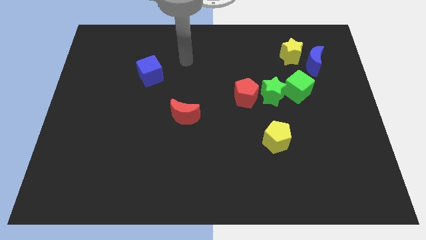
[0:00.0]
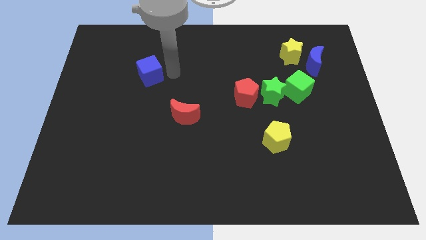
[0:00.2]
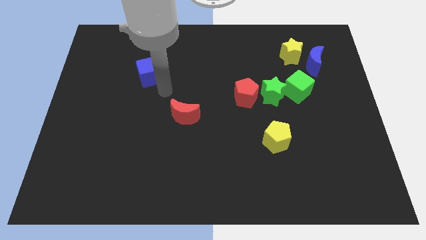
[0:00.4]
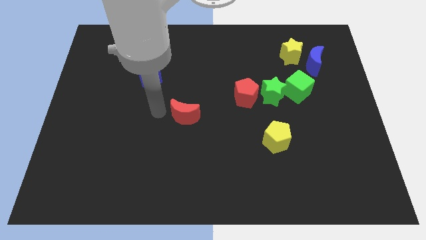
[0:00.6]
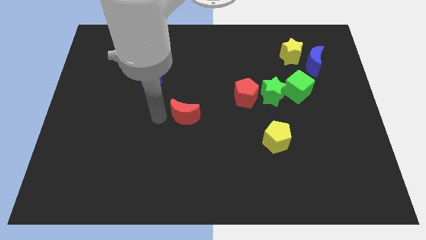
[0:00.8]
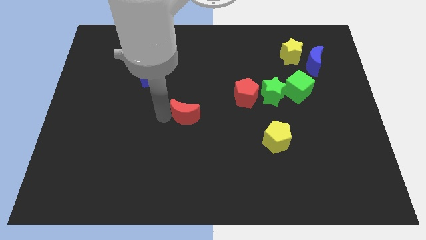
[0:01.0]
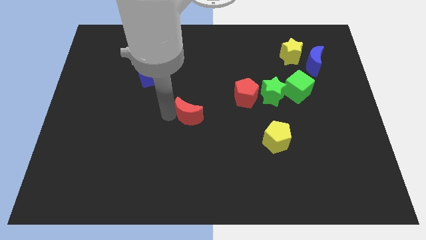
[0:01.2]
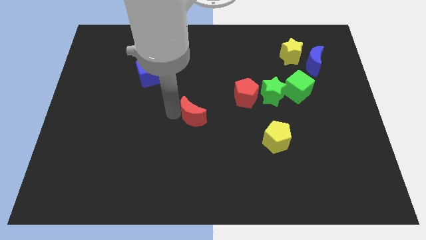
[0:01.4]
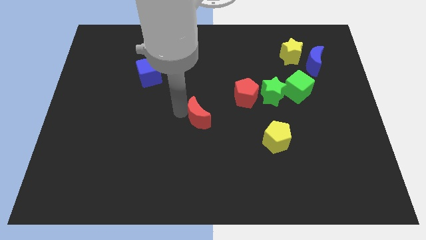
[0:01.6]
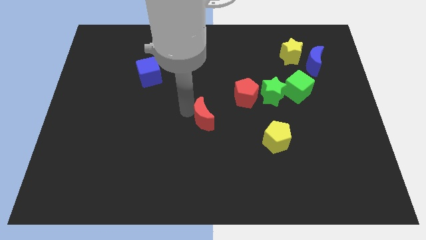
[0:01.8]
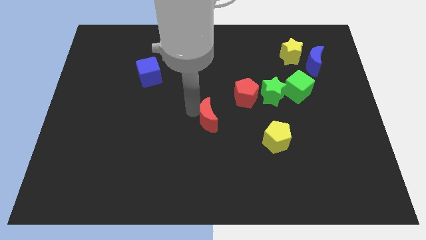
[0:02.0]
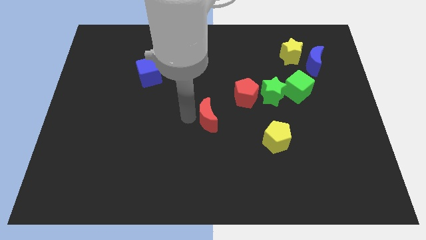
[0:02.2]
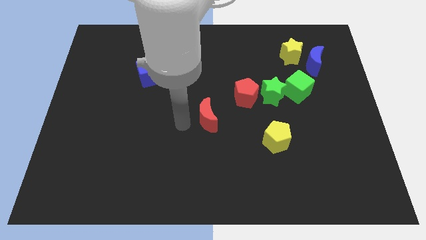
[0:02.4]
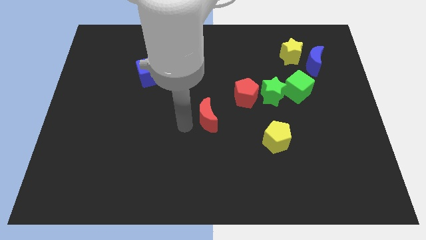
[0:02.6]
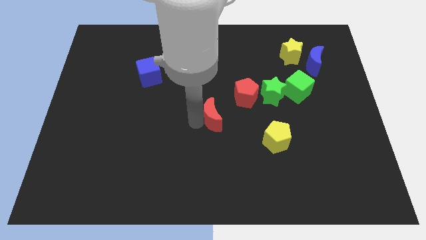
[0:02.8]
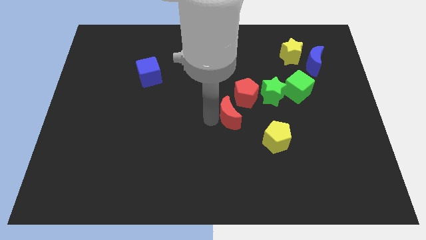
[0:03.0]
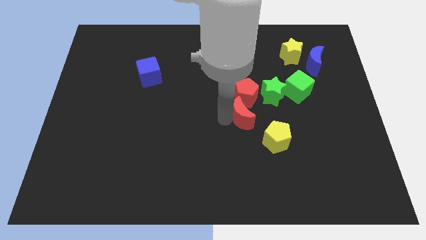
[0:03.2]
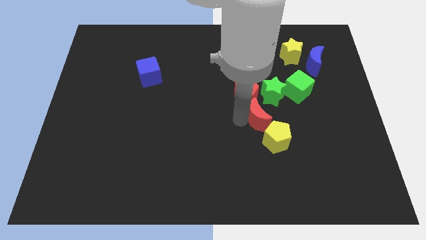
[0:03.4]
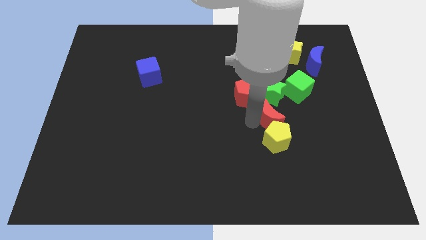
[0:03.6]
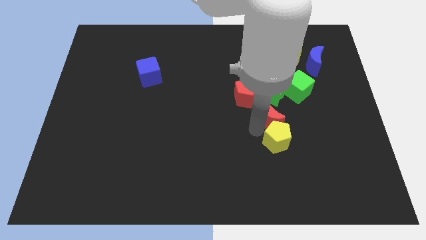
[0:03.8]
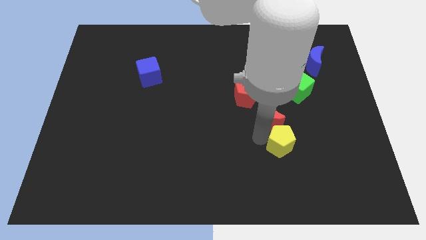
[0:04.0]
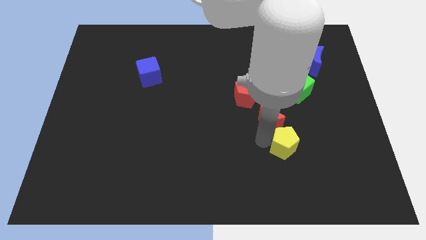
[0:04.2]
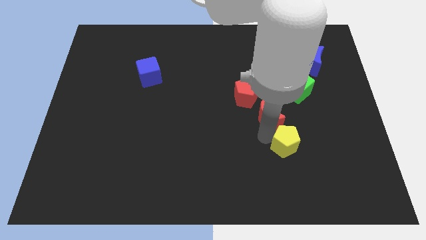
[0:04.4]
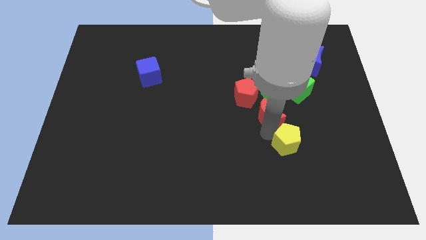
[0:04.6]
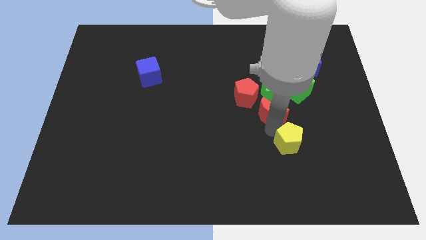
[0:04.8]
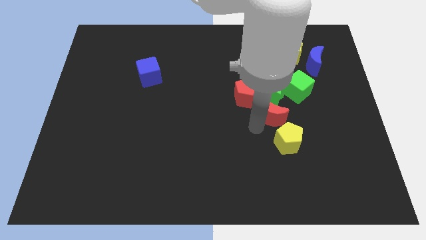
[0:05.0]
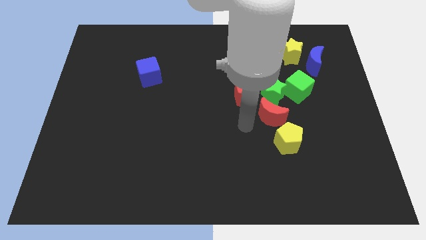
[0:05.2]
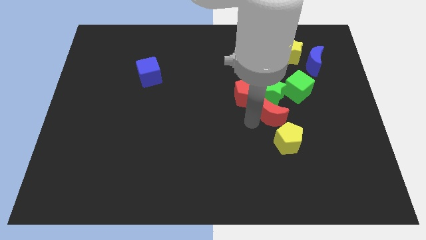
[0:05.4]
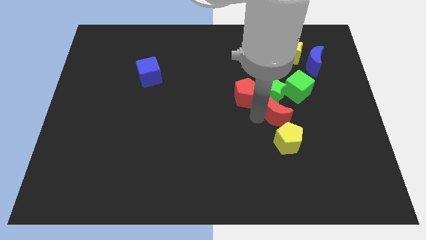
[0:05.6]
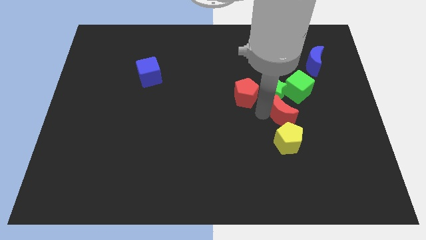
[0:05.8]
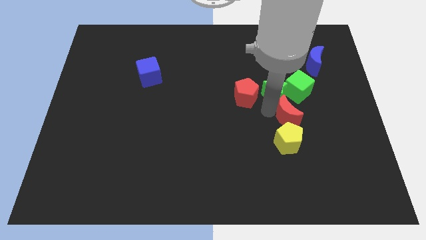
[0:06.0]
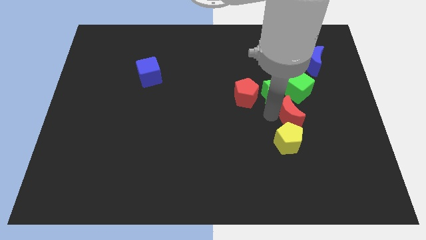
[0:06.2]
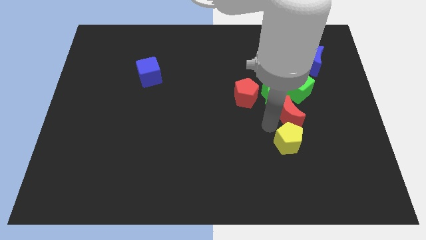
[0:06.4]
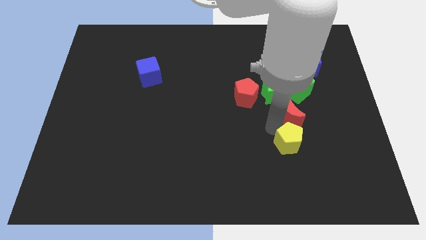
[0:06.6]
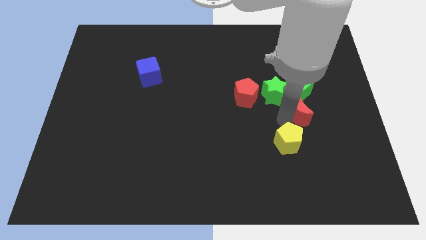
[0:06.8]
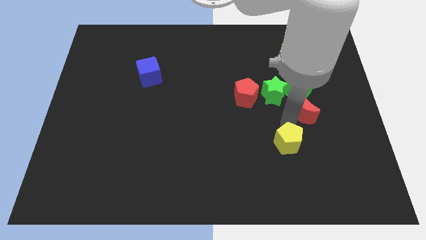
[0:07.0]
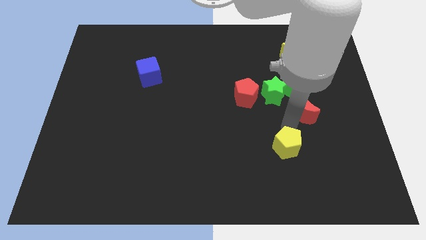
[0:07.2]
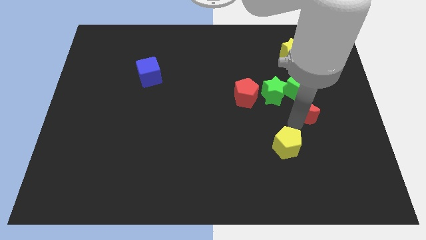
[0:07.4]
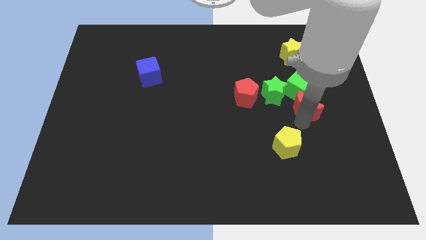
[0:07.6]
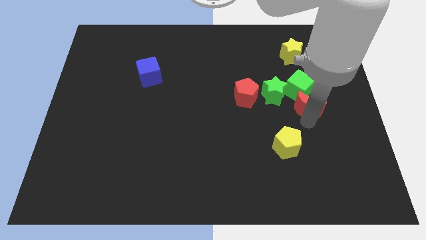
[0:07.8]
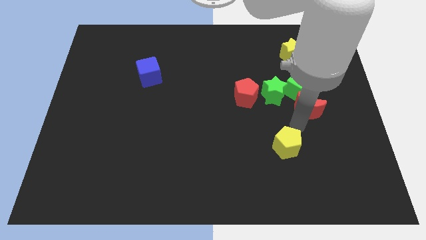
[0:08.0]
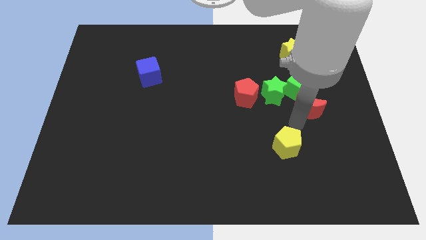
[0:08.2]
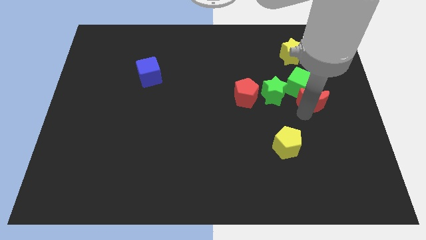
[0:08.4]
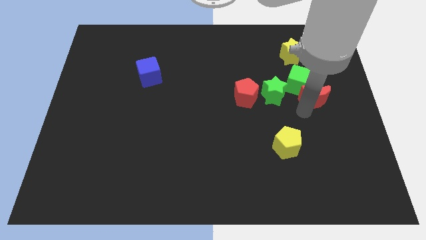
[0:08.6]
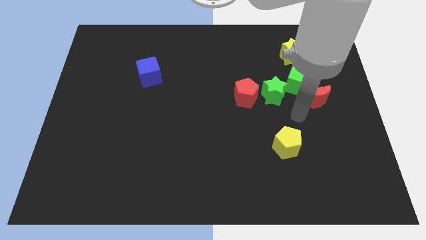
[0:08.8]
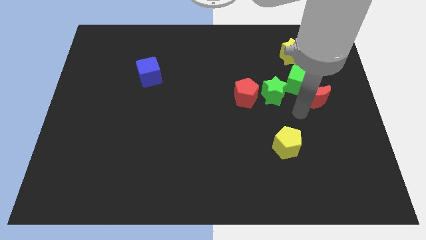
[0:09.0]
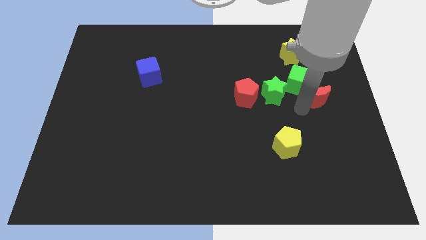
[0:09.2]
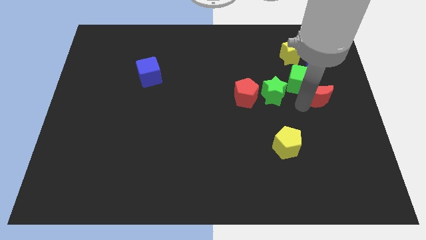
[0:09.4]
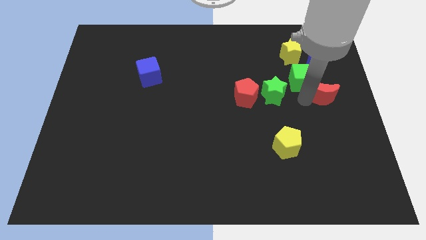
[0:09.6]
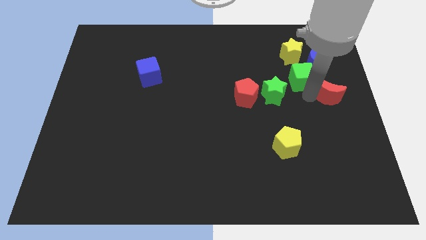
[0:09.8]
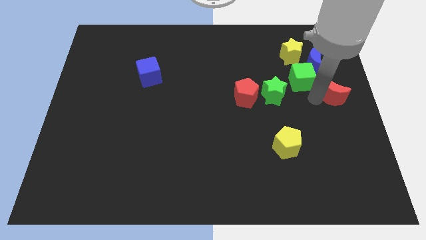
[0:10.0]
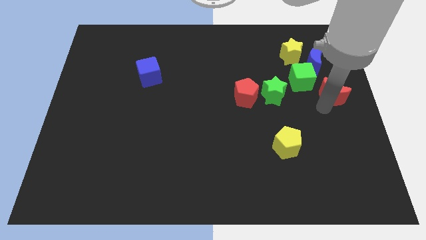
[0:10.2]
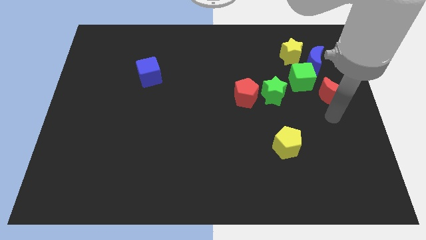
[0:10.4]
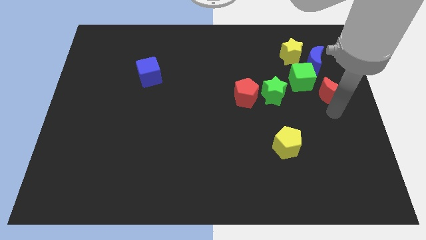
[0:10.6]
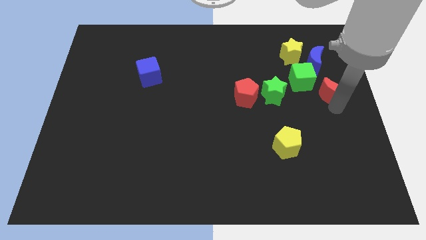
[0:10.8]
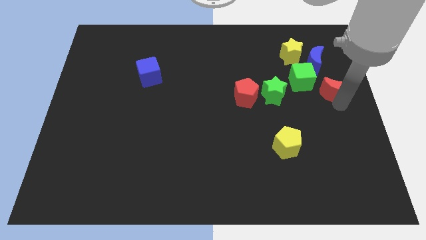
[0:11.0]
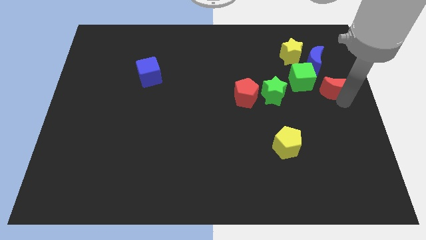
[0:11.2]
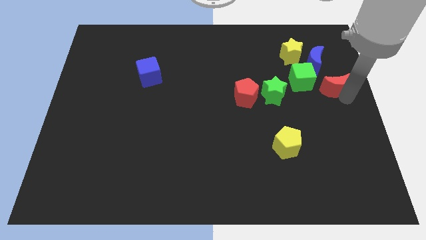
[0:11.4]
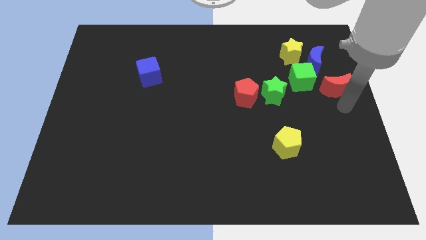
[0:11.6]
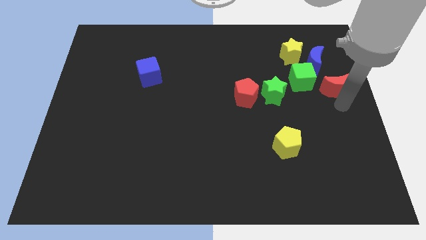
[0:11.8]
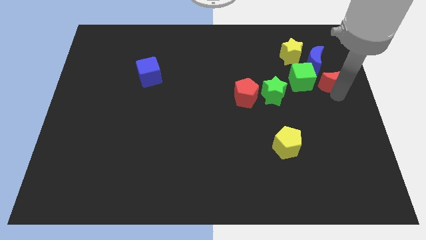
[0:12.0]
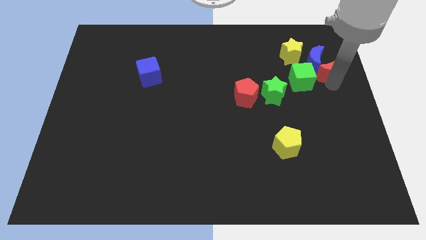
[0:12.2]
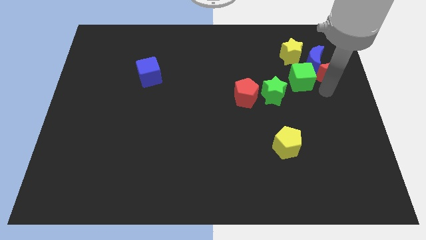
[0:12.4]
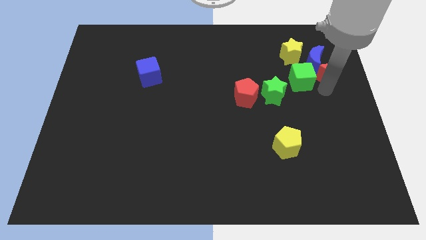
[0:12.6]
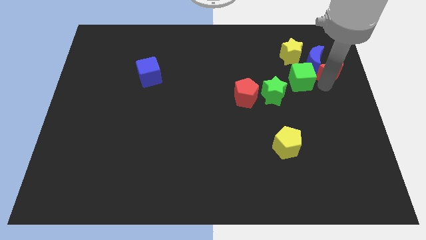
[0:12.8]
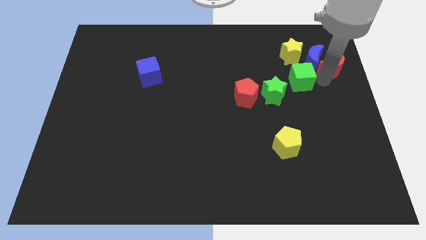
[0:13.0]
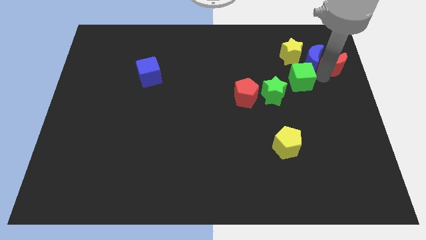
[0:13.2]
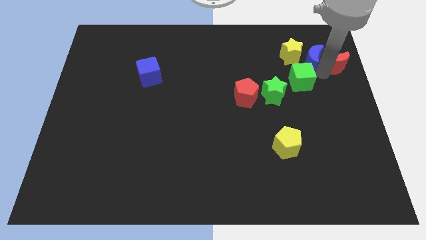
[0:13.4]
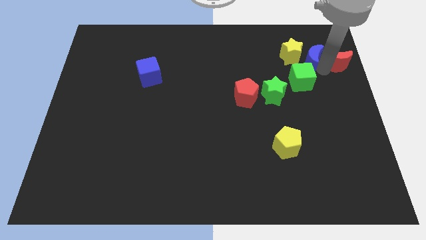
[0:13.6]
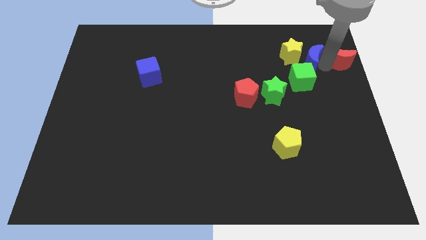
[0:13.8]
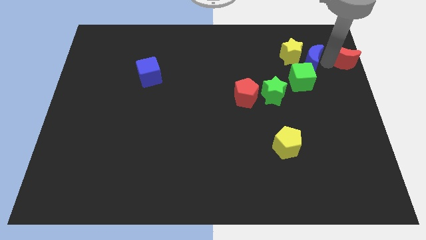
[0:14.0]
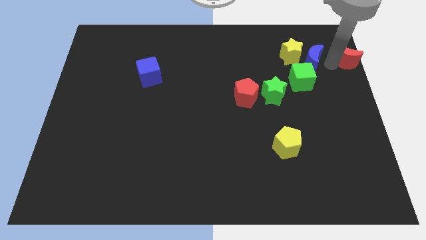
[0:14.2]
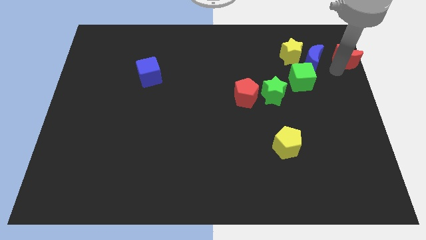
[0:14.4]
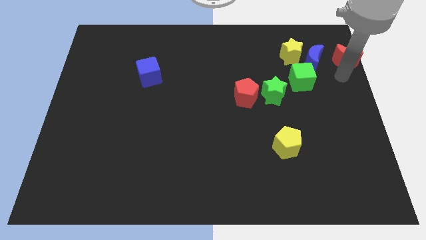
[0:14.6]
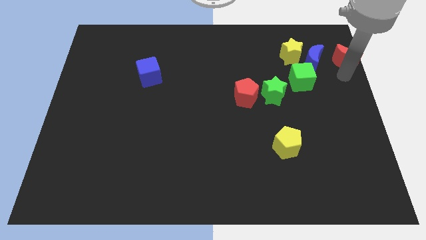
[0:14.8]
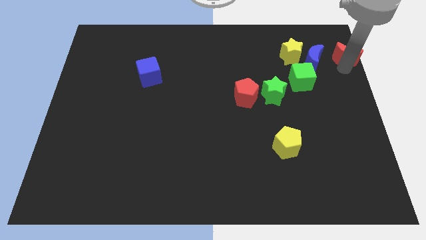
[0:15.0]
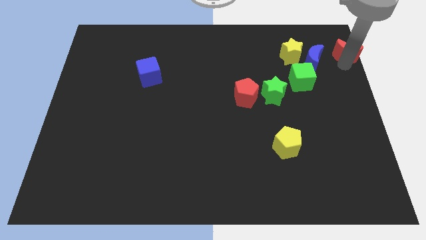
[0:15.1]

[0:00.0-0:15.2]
put the red moon to the top right
